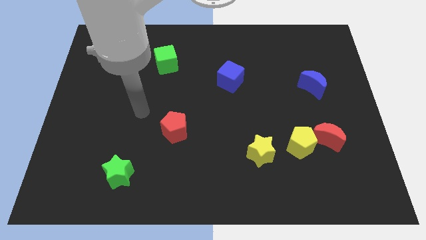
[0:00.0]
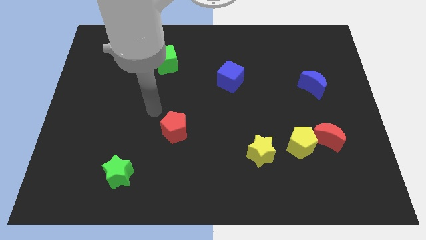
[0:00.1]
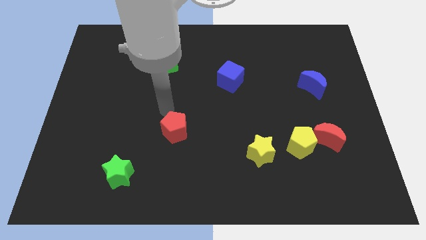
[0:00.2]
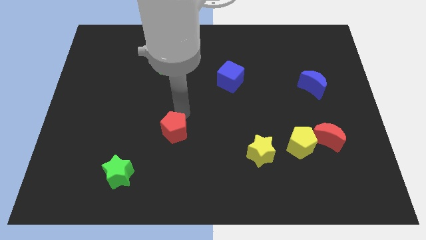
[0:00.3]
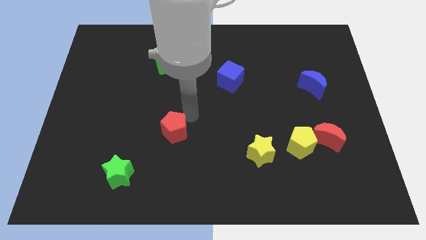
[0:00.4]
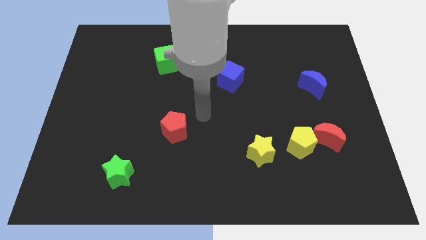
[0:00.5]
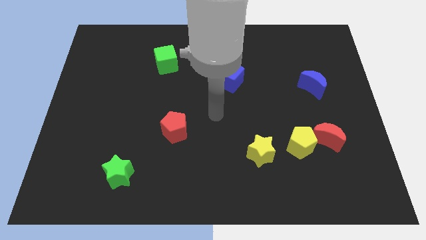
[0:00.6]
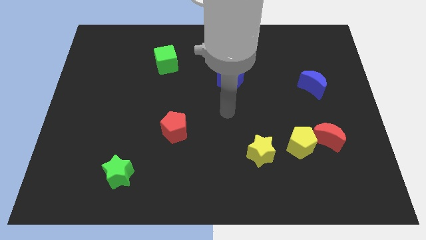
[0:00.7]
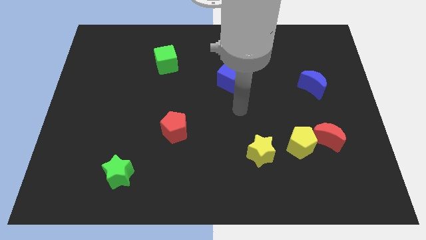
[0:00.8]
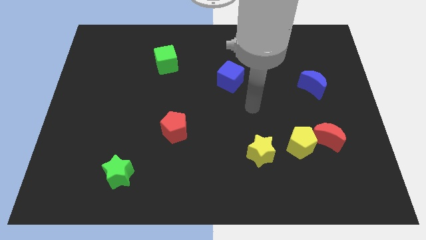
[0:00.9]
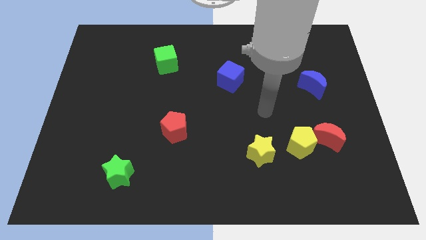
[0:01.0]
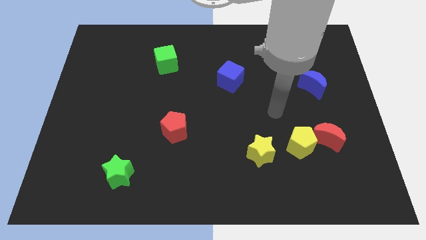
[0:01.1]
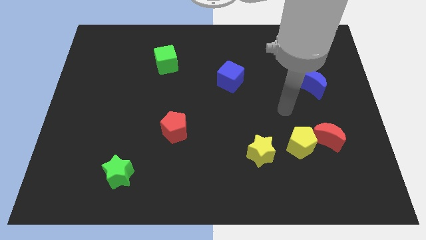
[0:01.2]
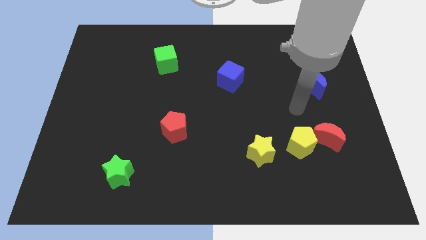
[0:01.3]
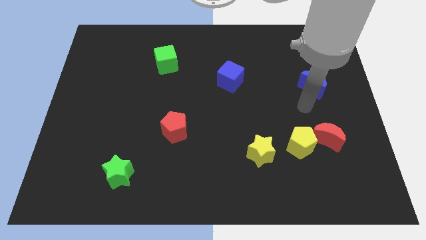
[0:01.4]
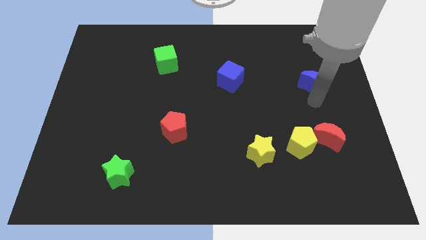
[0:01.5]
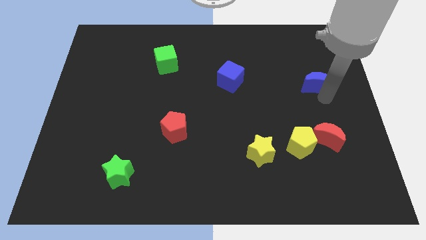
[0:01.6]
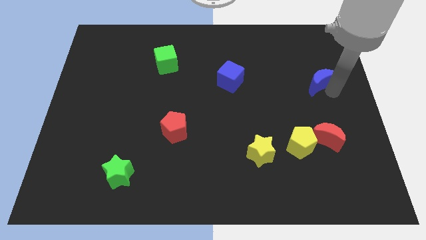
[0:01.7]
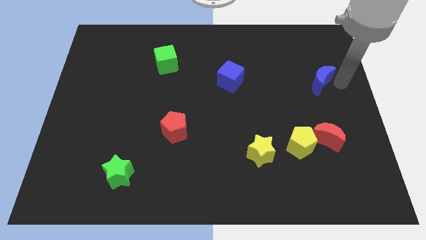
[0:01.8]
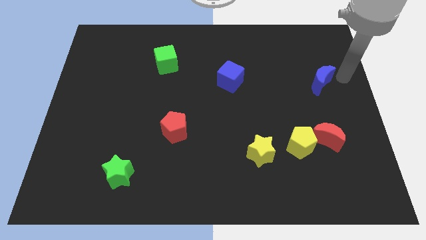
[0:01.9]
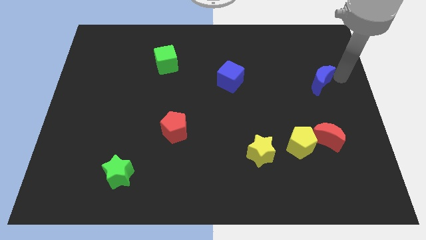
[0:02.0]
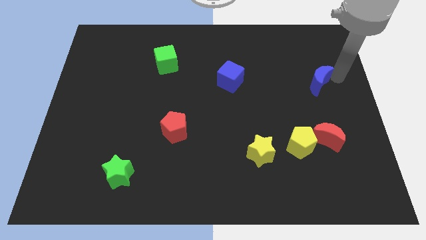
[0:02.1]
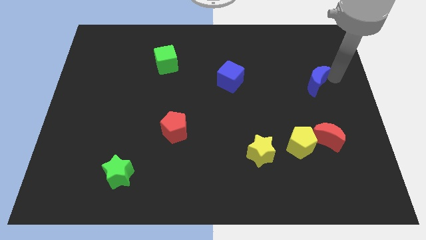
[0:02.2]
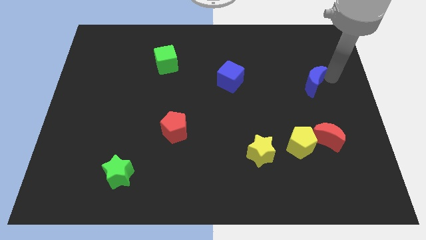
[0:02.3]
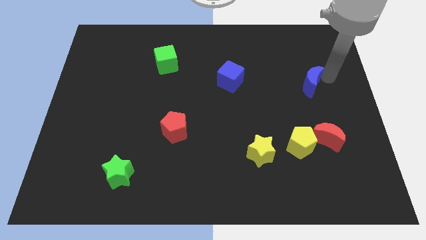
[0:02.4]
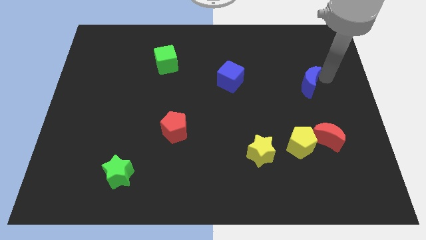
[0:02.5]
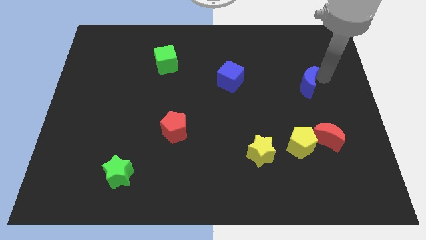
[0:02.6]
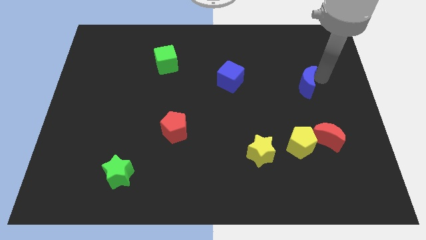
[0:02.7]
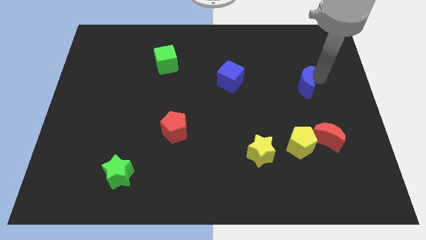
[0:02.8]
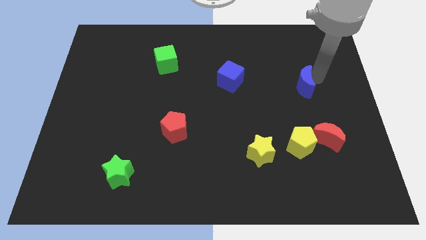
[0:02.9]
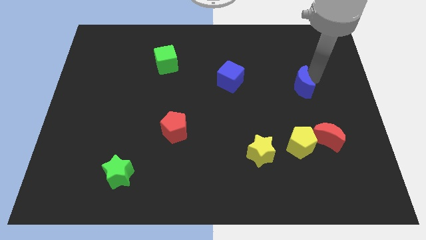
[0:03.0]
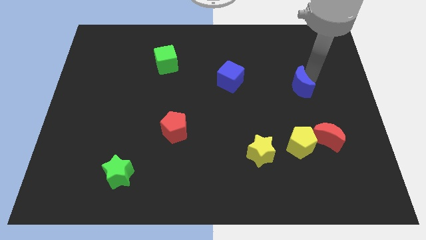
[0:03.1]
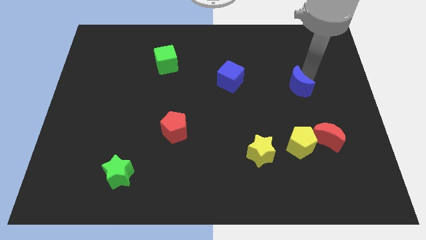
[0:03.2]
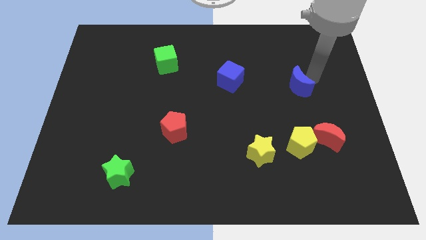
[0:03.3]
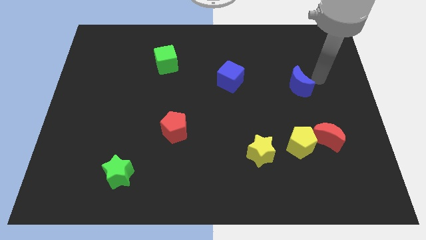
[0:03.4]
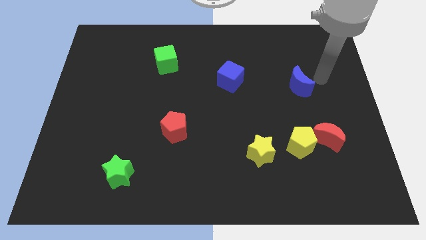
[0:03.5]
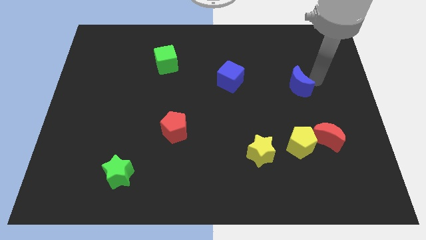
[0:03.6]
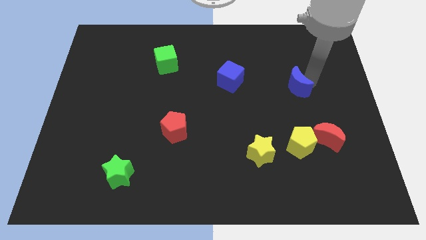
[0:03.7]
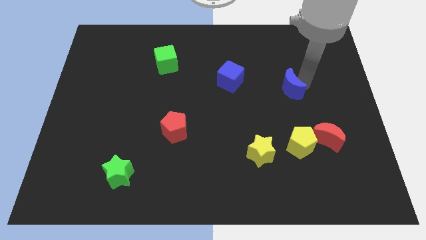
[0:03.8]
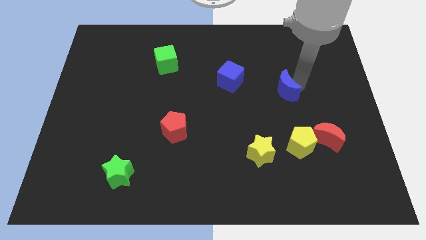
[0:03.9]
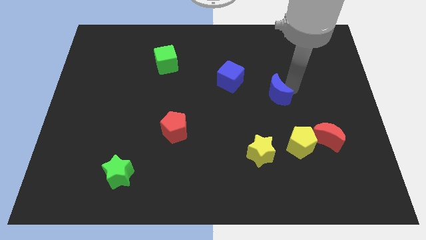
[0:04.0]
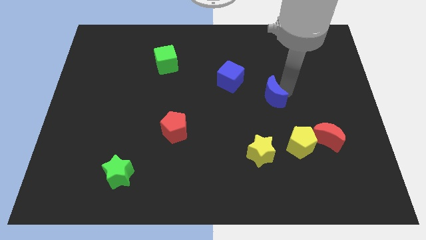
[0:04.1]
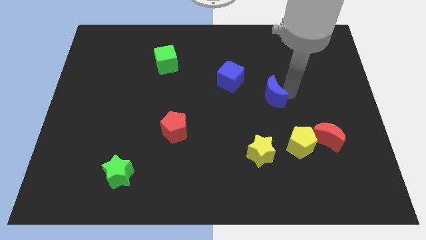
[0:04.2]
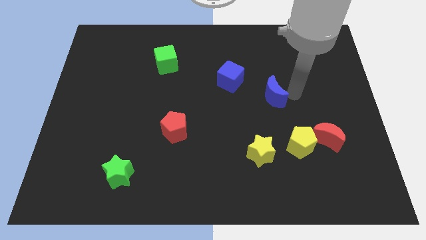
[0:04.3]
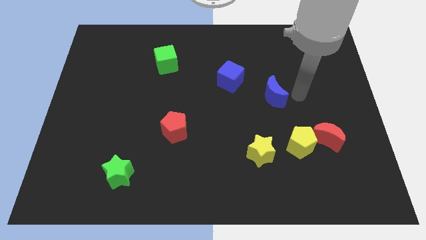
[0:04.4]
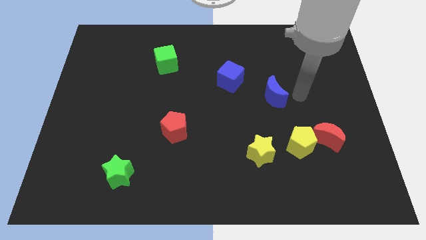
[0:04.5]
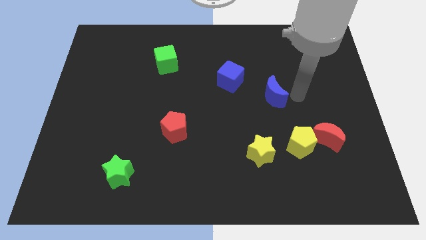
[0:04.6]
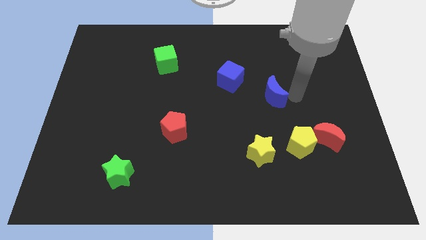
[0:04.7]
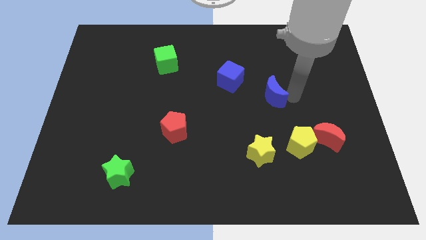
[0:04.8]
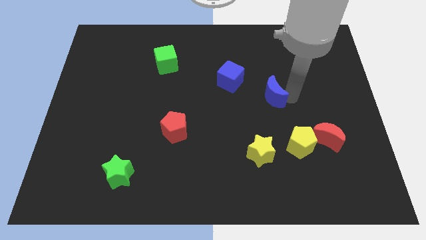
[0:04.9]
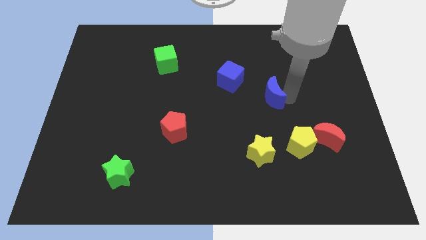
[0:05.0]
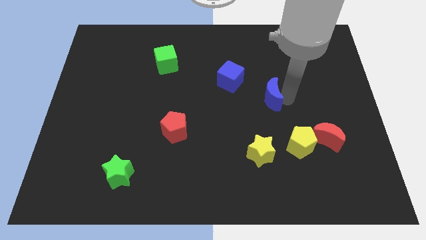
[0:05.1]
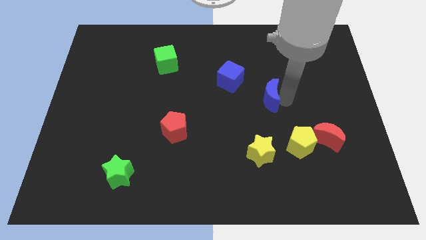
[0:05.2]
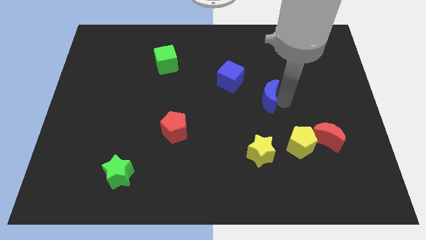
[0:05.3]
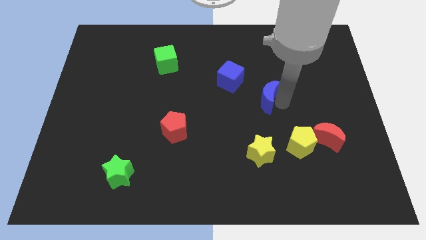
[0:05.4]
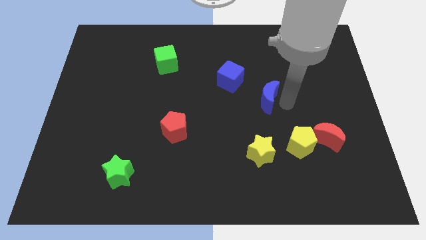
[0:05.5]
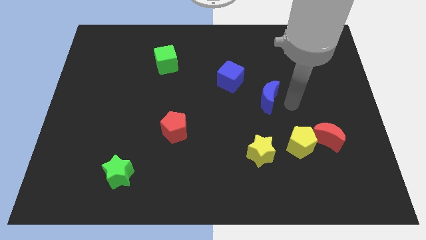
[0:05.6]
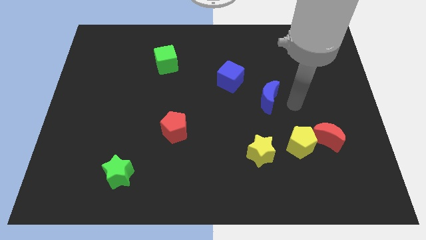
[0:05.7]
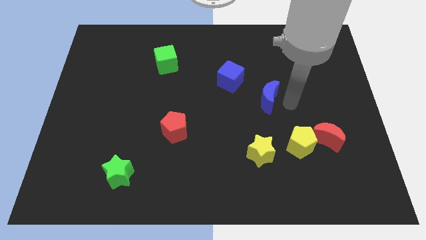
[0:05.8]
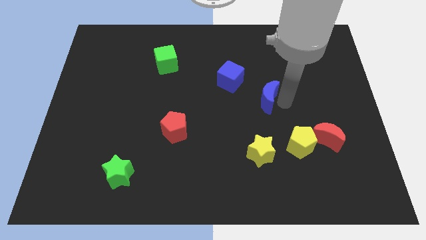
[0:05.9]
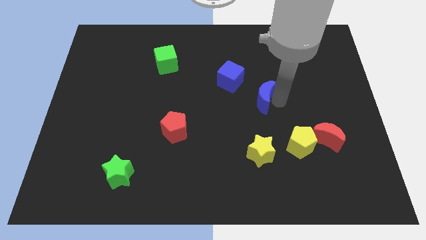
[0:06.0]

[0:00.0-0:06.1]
put the blue moon to the center of the board
